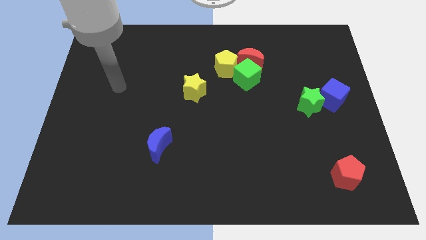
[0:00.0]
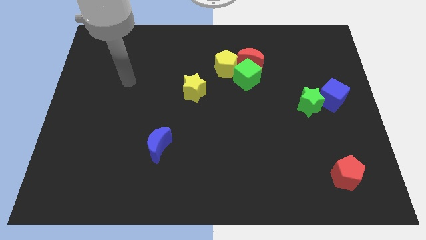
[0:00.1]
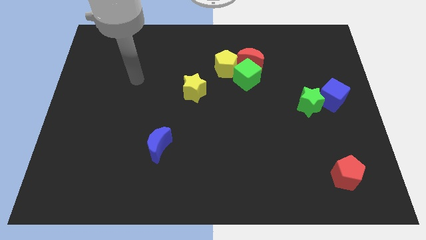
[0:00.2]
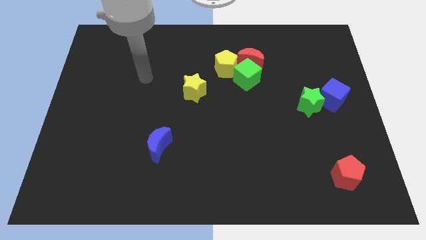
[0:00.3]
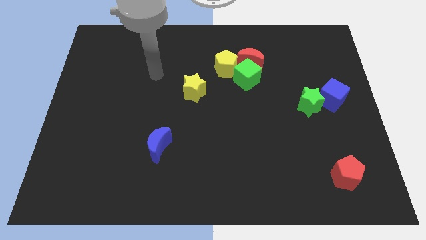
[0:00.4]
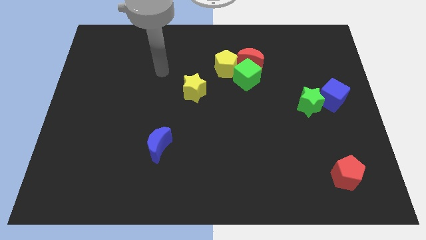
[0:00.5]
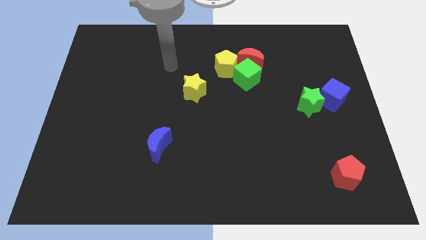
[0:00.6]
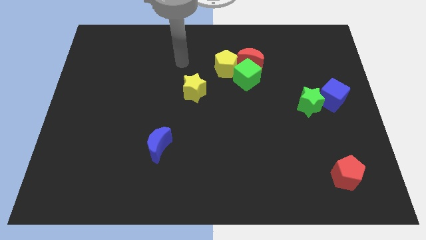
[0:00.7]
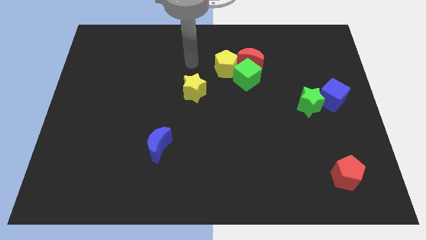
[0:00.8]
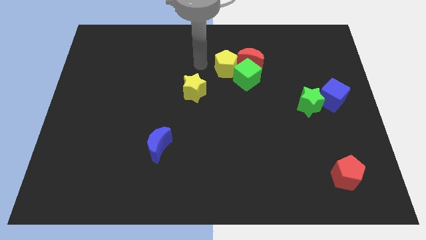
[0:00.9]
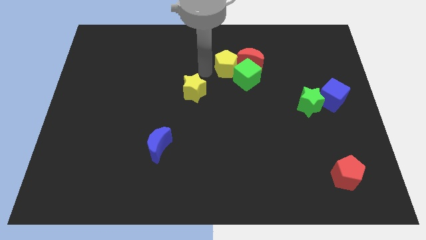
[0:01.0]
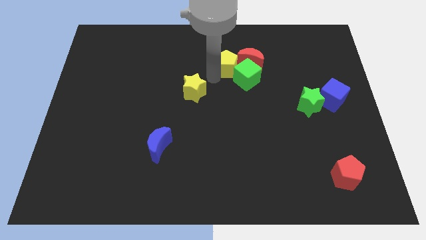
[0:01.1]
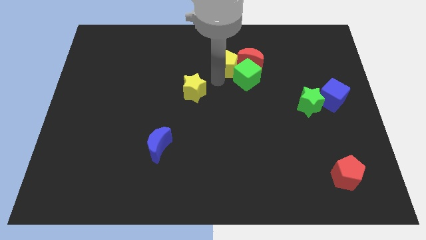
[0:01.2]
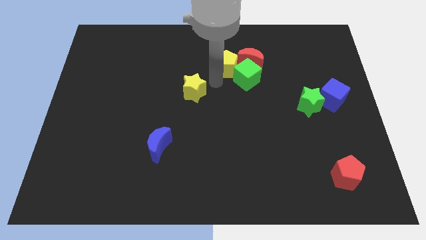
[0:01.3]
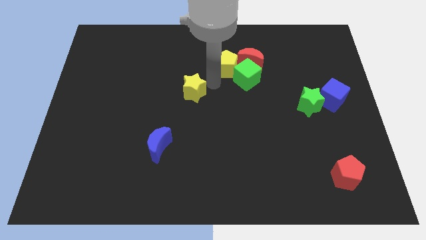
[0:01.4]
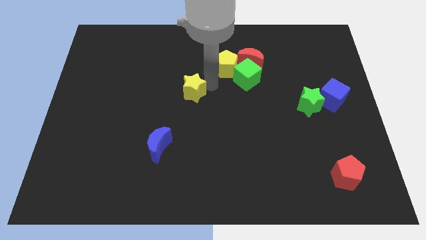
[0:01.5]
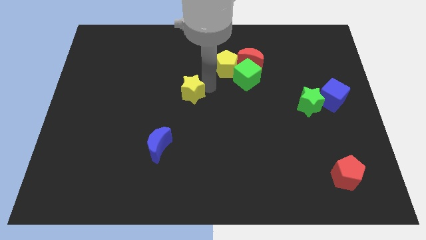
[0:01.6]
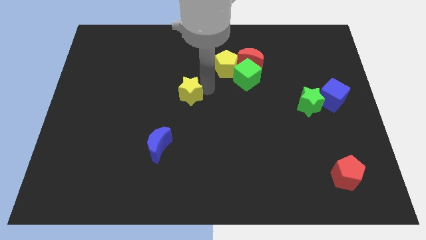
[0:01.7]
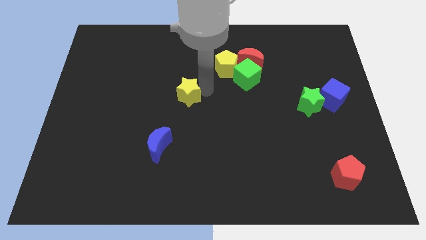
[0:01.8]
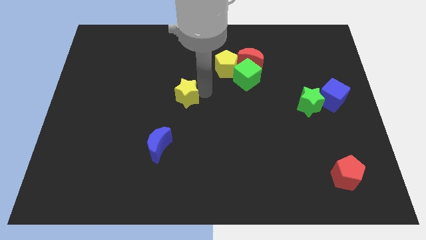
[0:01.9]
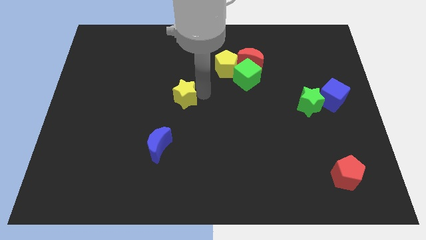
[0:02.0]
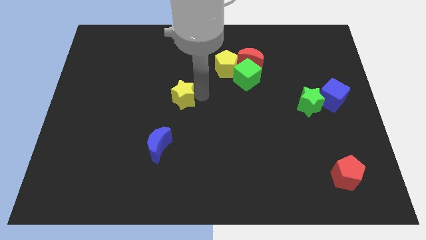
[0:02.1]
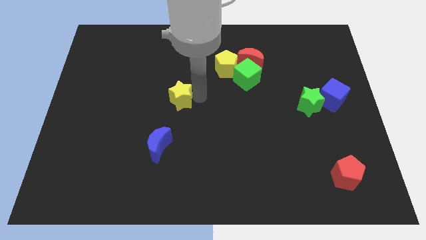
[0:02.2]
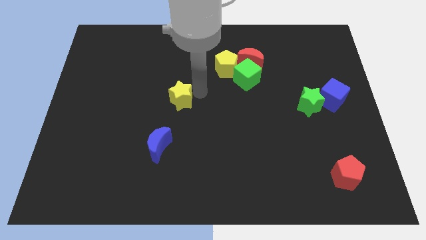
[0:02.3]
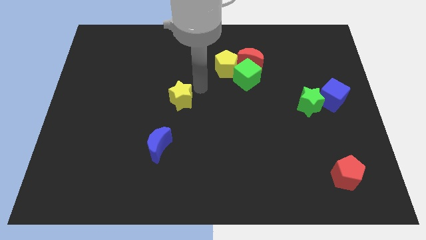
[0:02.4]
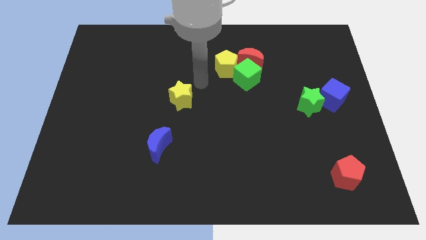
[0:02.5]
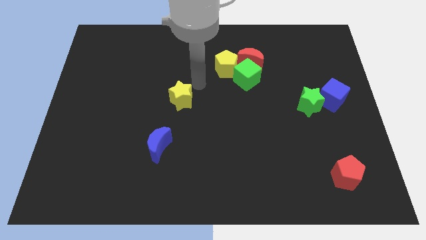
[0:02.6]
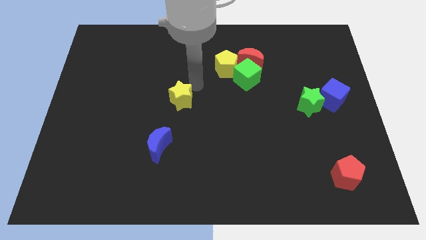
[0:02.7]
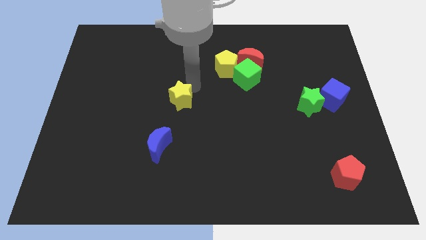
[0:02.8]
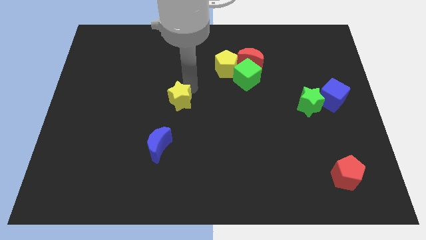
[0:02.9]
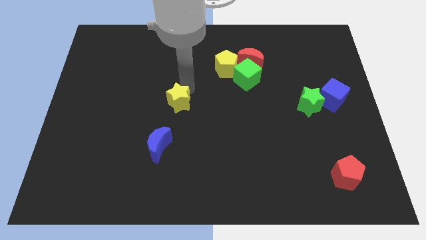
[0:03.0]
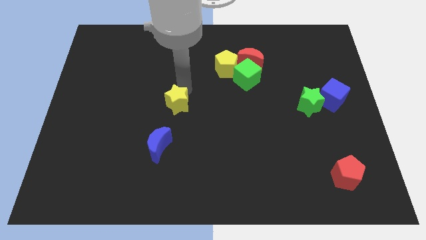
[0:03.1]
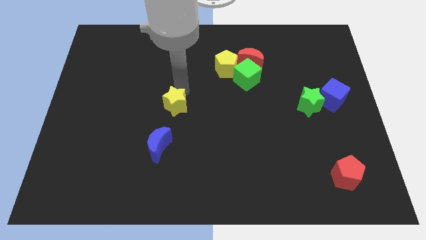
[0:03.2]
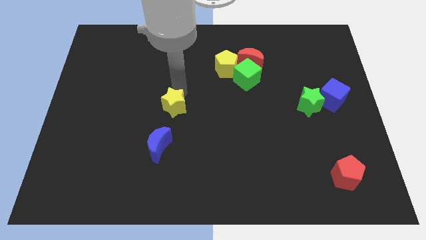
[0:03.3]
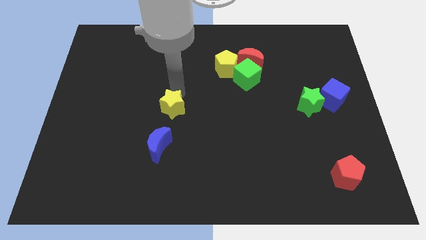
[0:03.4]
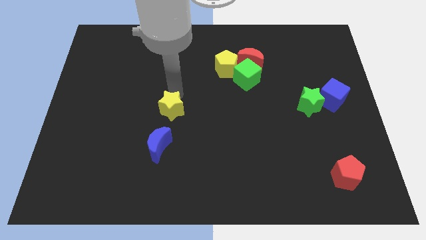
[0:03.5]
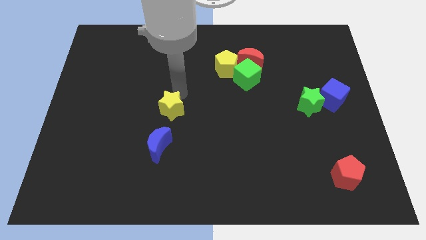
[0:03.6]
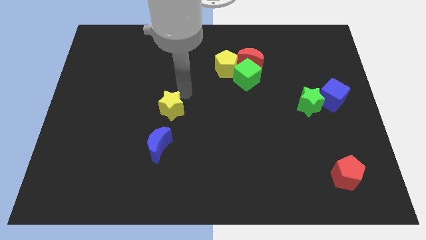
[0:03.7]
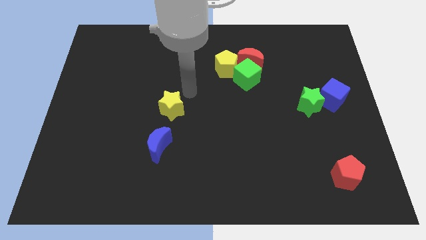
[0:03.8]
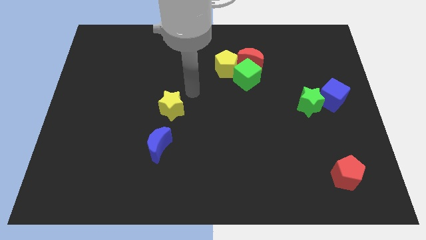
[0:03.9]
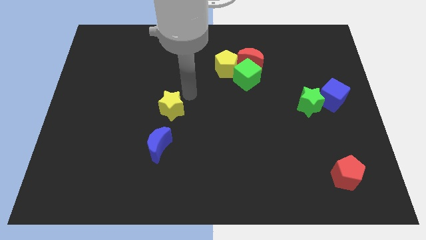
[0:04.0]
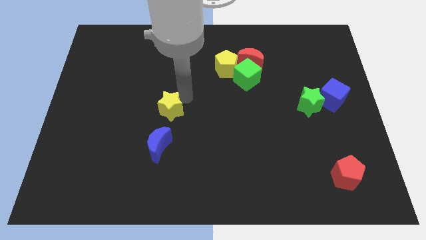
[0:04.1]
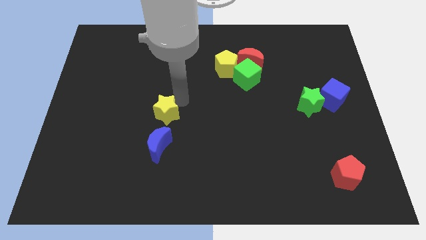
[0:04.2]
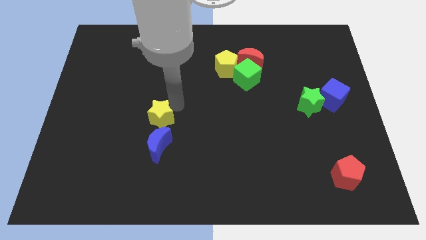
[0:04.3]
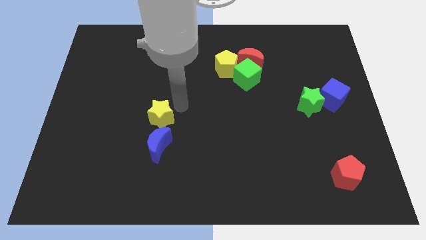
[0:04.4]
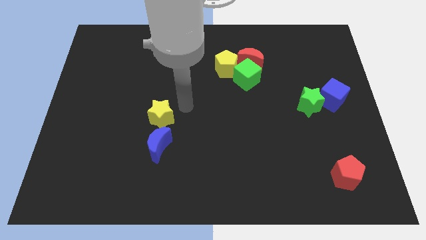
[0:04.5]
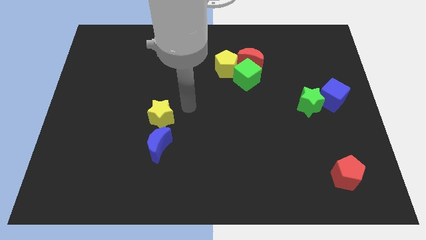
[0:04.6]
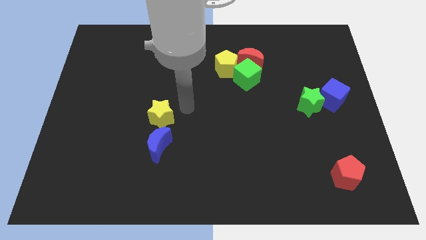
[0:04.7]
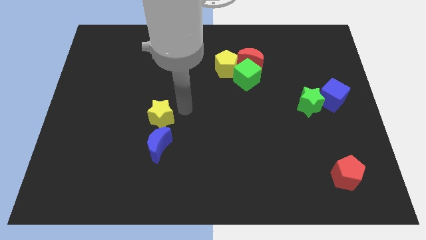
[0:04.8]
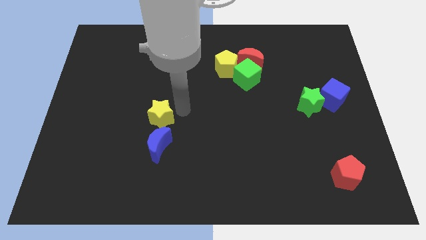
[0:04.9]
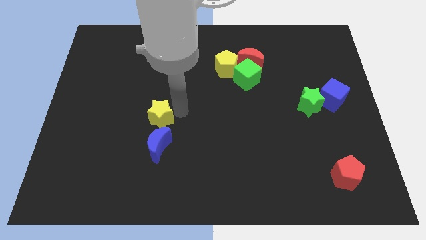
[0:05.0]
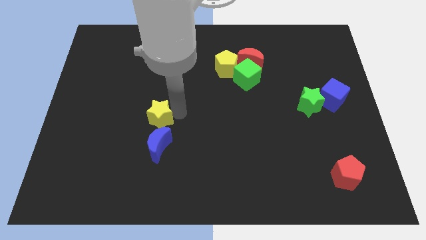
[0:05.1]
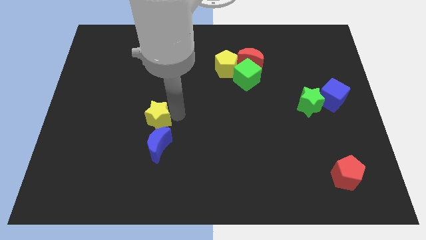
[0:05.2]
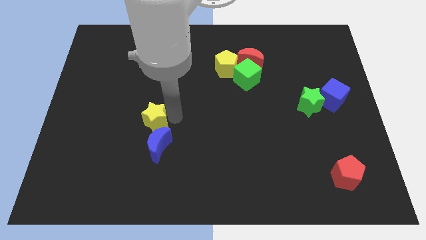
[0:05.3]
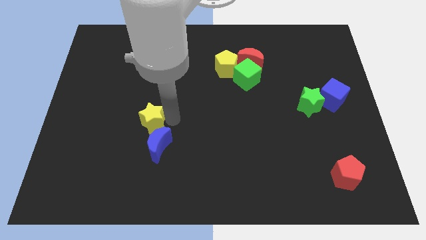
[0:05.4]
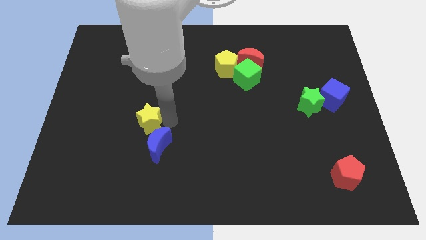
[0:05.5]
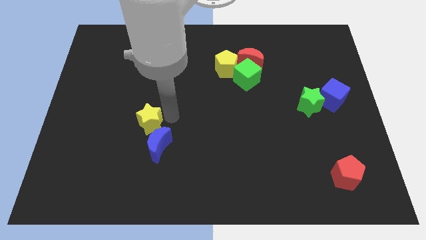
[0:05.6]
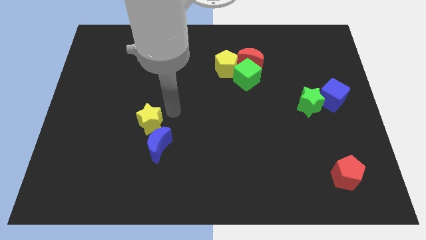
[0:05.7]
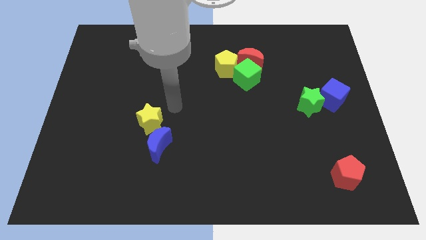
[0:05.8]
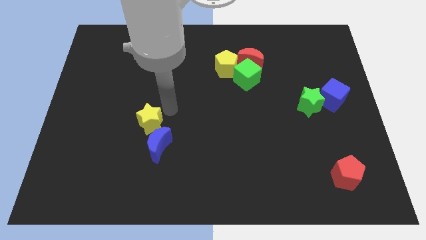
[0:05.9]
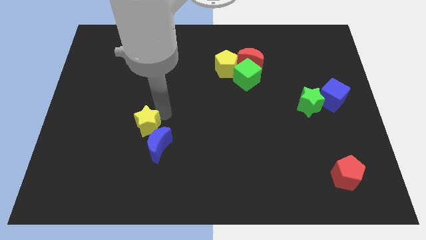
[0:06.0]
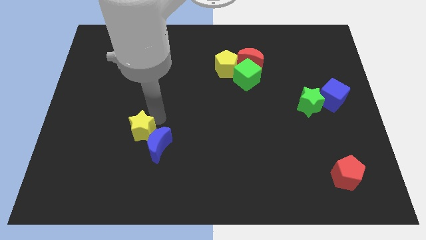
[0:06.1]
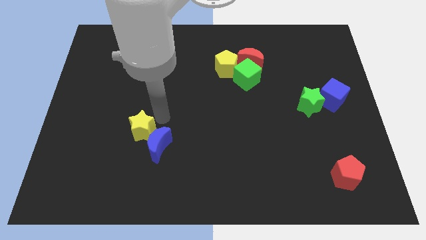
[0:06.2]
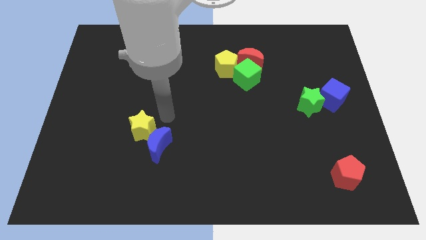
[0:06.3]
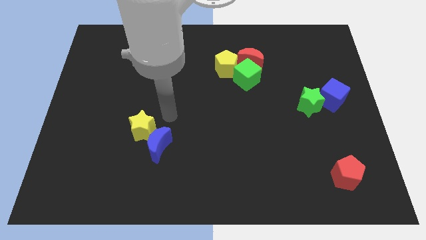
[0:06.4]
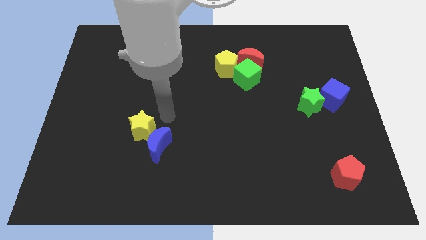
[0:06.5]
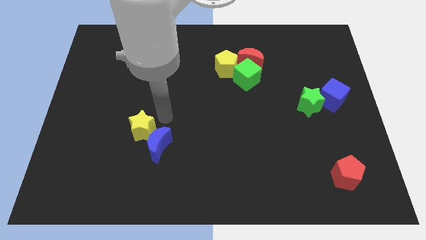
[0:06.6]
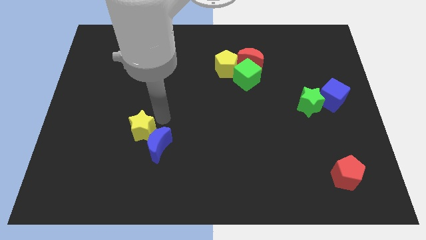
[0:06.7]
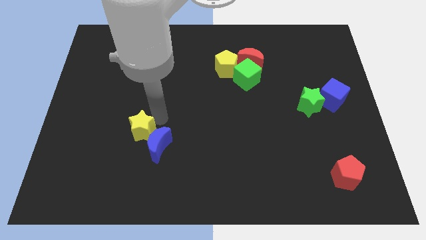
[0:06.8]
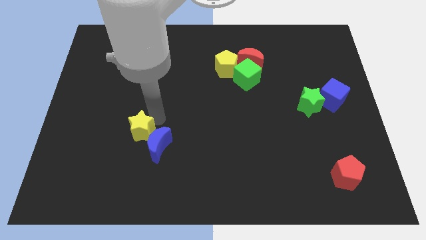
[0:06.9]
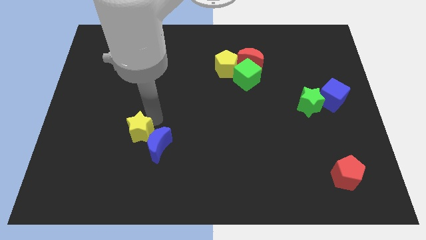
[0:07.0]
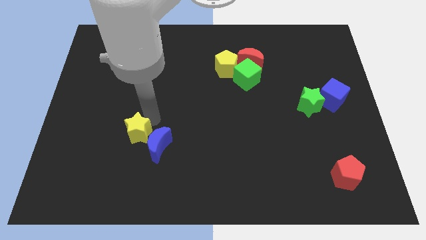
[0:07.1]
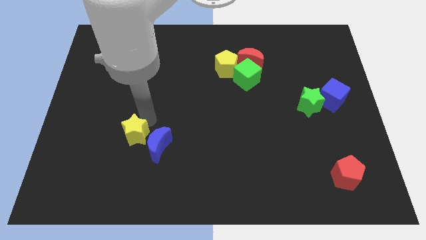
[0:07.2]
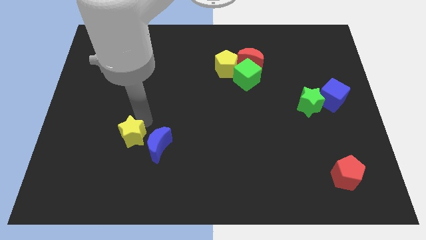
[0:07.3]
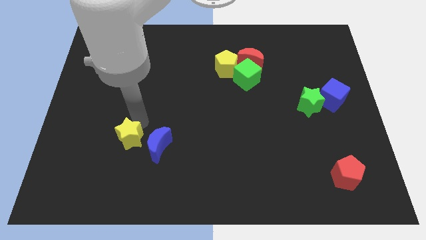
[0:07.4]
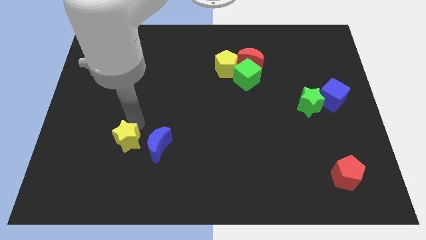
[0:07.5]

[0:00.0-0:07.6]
move the yellow star down and then to the left

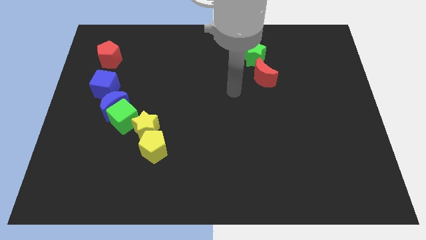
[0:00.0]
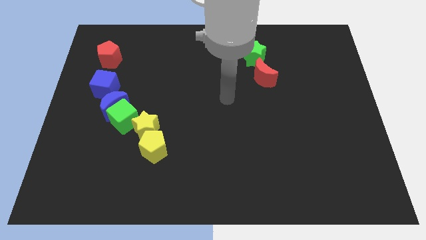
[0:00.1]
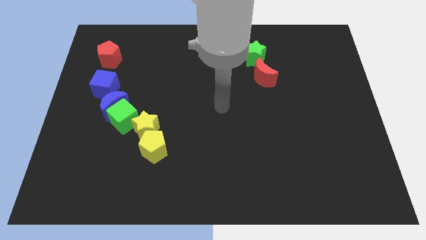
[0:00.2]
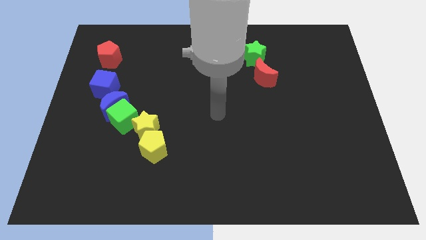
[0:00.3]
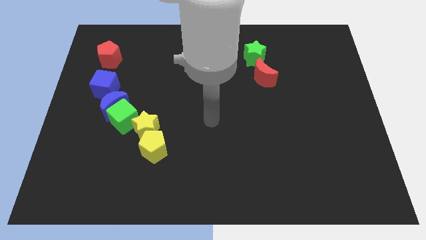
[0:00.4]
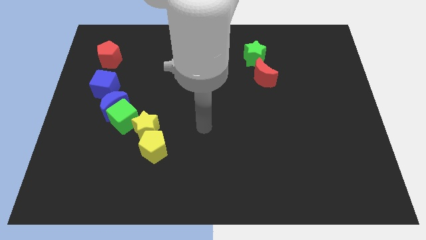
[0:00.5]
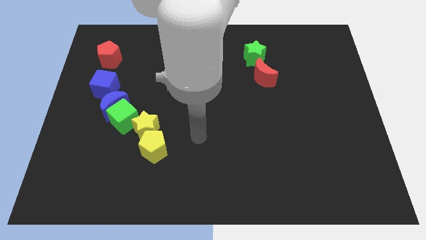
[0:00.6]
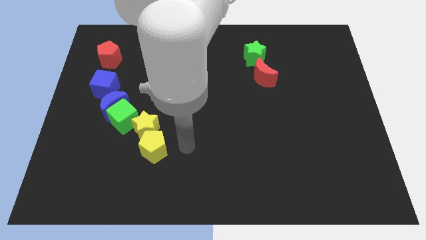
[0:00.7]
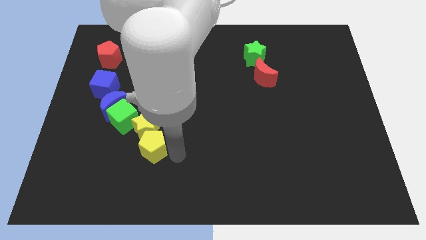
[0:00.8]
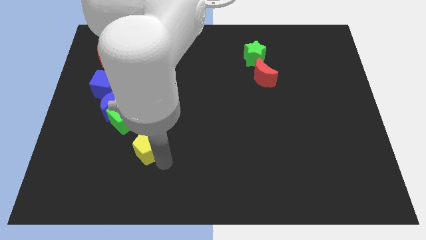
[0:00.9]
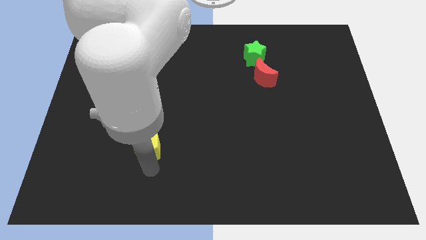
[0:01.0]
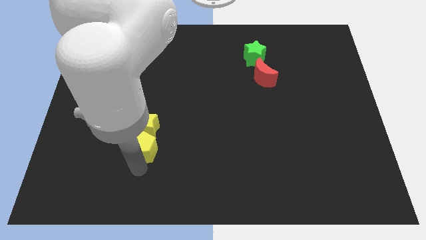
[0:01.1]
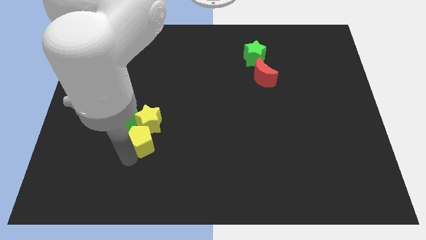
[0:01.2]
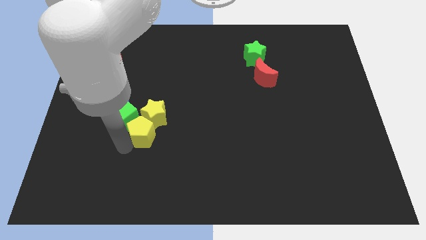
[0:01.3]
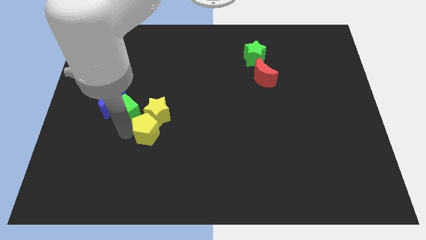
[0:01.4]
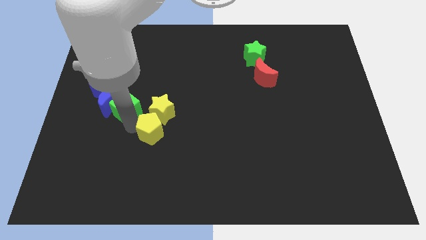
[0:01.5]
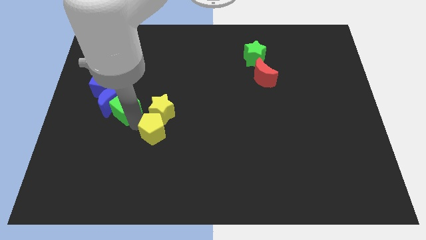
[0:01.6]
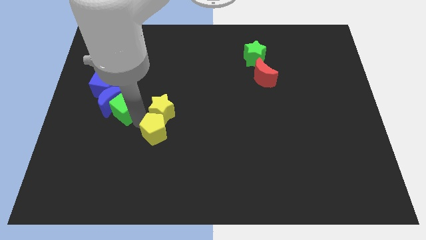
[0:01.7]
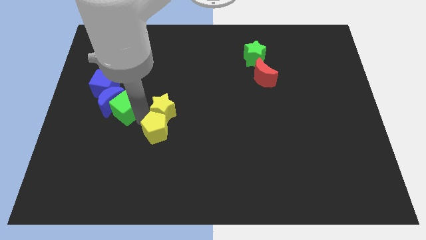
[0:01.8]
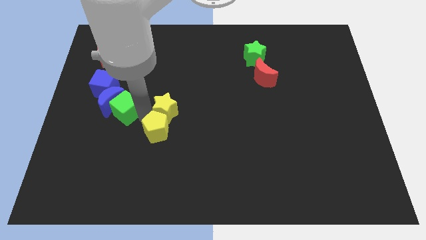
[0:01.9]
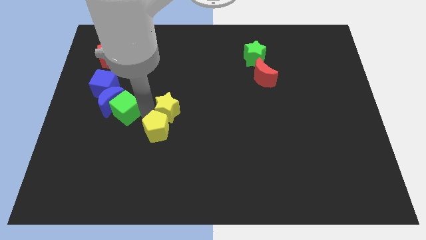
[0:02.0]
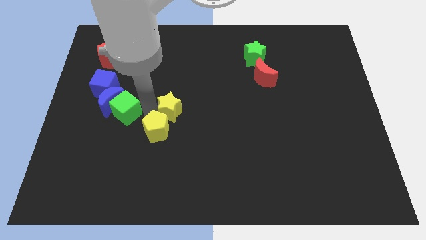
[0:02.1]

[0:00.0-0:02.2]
slide the yellow star upwards and then right somewhat
